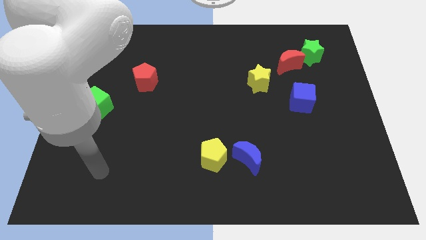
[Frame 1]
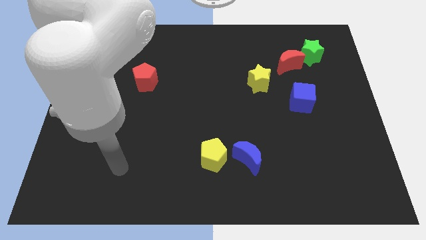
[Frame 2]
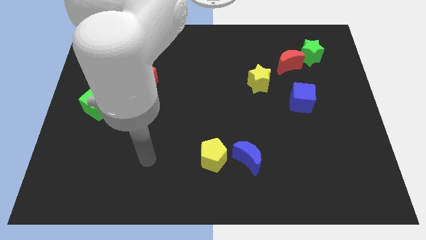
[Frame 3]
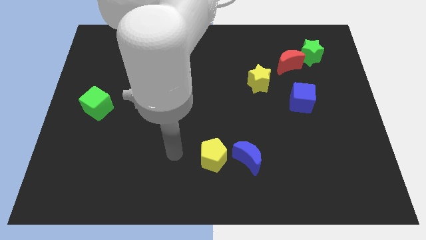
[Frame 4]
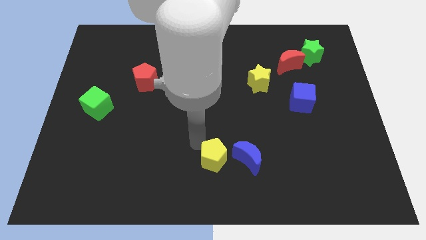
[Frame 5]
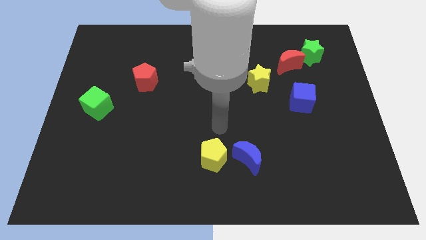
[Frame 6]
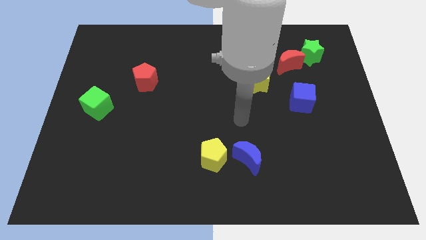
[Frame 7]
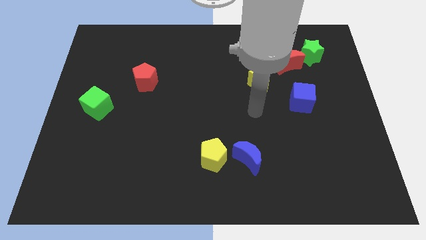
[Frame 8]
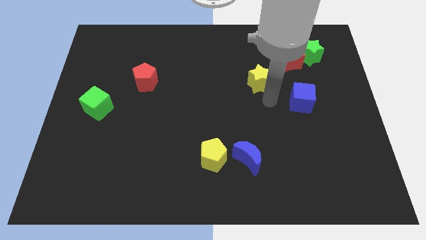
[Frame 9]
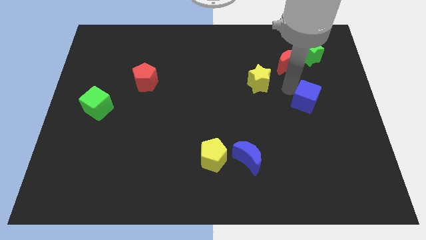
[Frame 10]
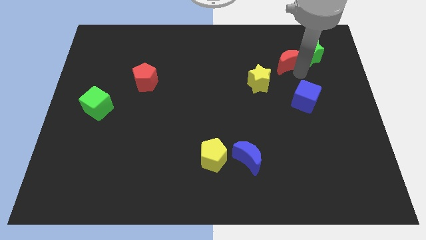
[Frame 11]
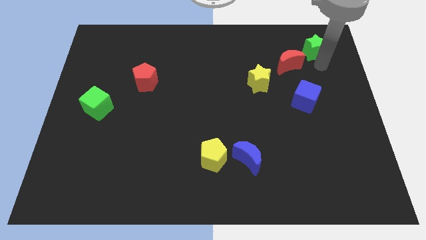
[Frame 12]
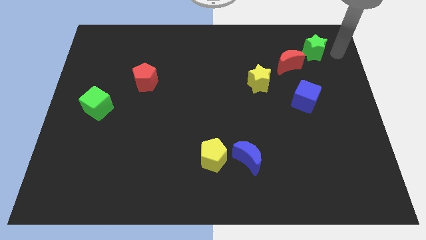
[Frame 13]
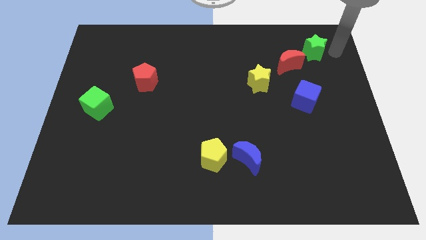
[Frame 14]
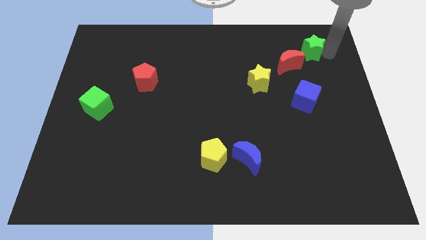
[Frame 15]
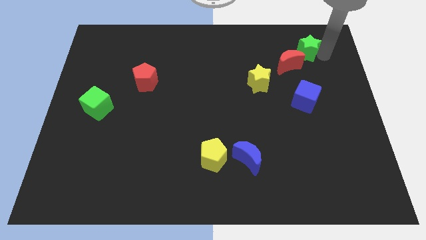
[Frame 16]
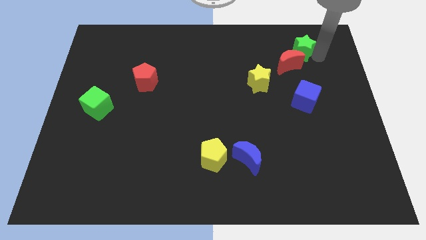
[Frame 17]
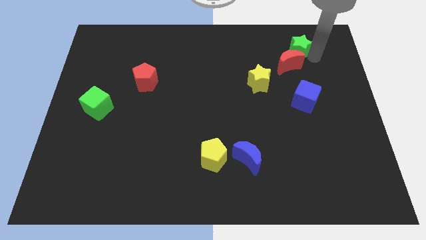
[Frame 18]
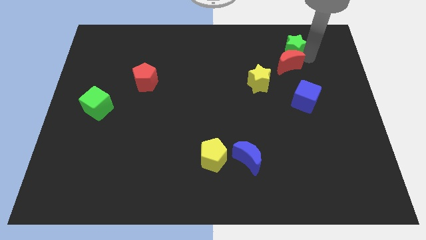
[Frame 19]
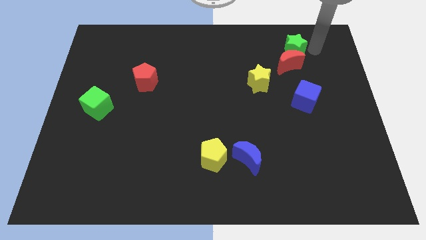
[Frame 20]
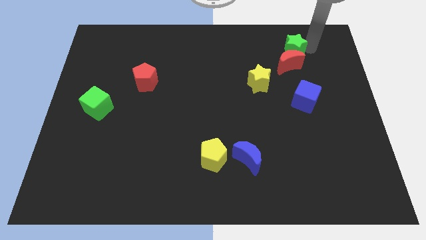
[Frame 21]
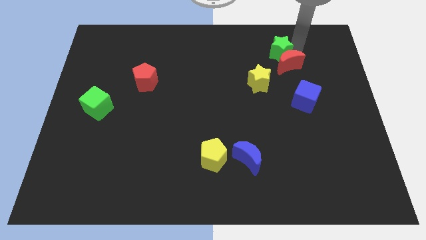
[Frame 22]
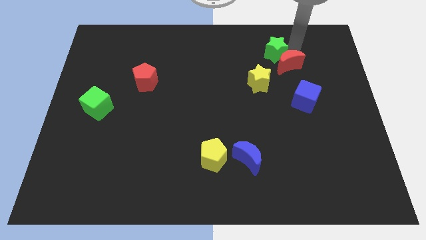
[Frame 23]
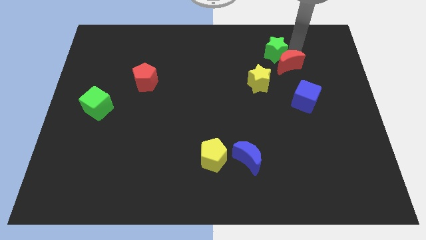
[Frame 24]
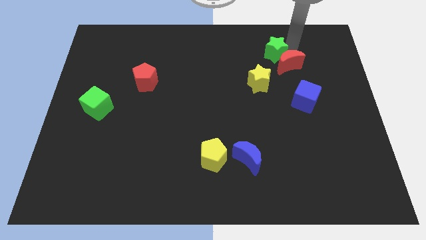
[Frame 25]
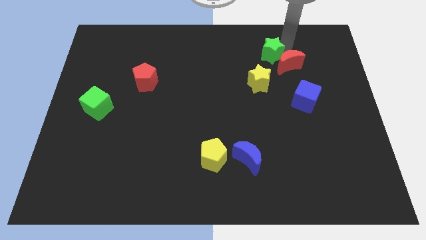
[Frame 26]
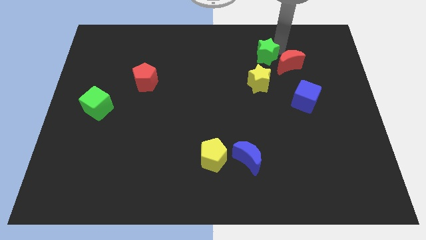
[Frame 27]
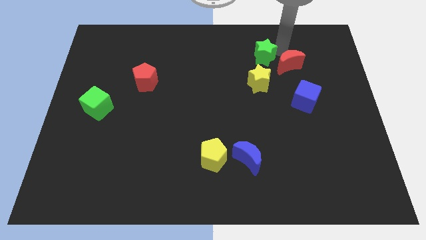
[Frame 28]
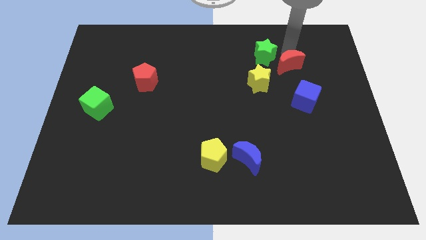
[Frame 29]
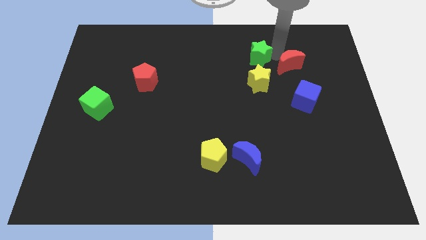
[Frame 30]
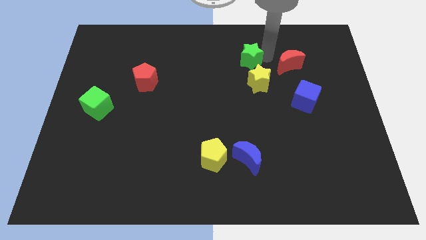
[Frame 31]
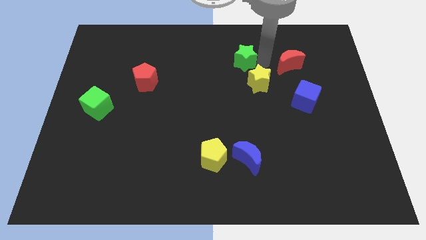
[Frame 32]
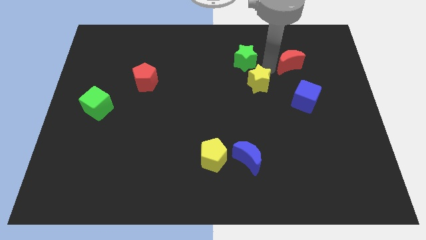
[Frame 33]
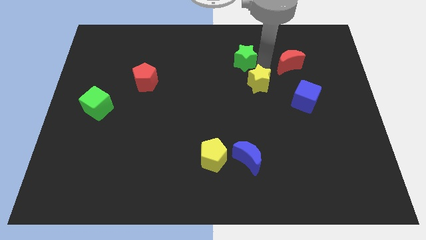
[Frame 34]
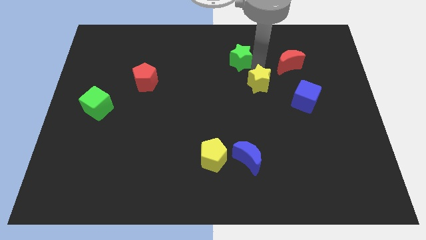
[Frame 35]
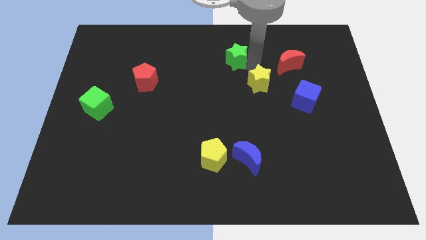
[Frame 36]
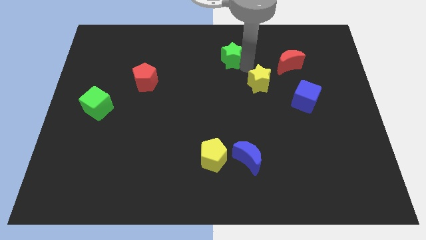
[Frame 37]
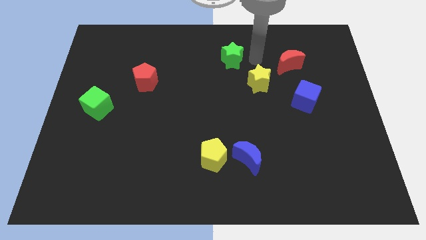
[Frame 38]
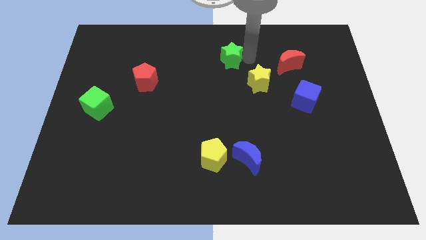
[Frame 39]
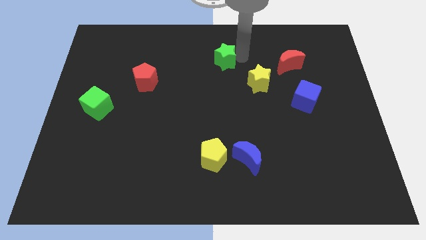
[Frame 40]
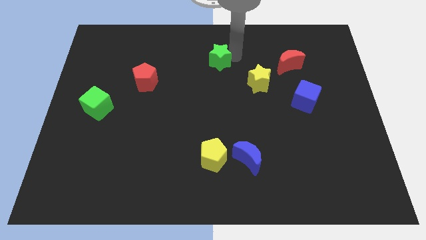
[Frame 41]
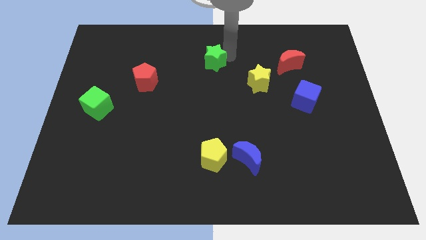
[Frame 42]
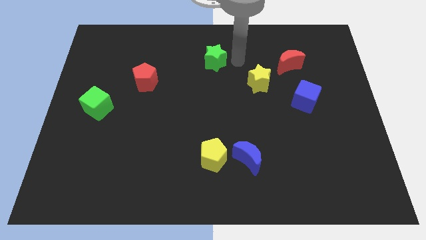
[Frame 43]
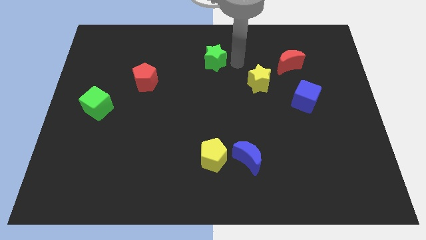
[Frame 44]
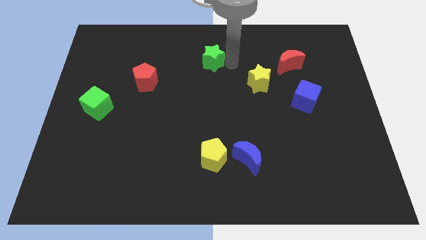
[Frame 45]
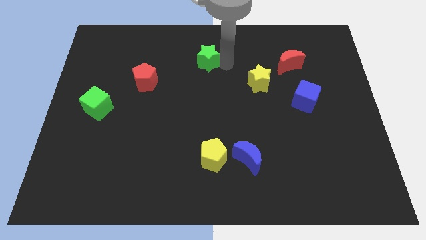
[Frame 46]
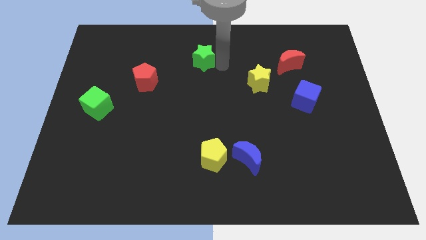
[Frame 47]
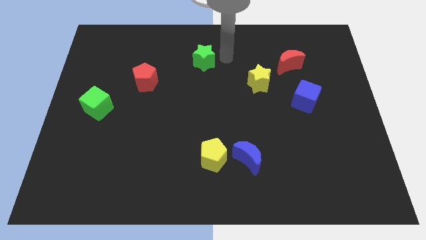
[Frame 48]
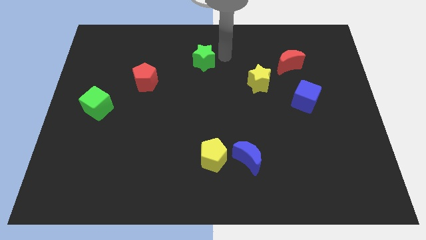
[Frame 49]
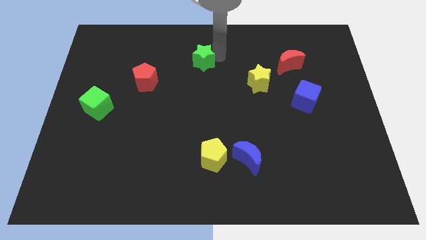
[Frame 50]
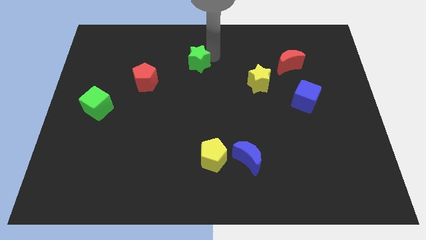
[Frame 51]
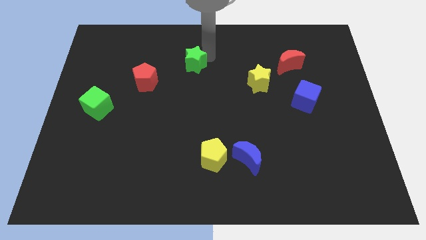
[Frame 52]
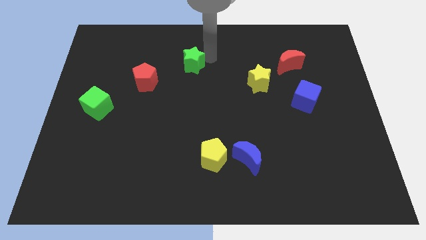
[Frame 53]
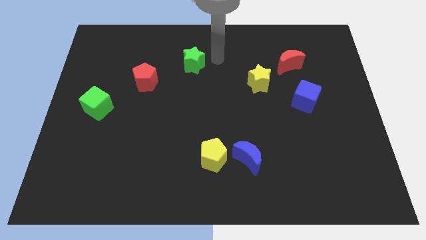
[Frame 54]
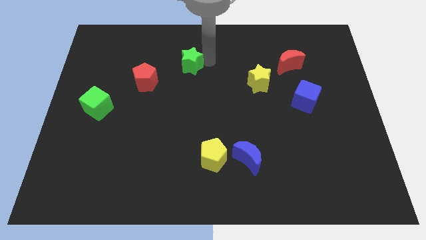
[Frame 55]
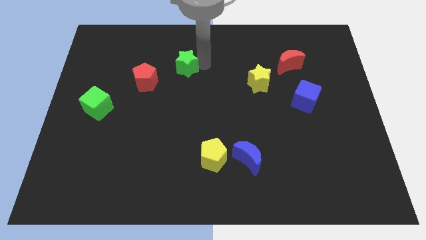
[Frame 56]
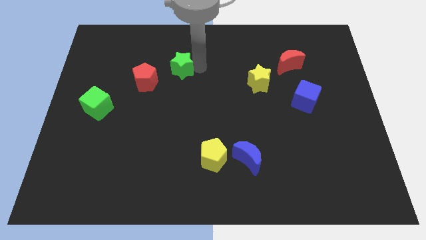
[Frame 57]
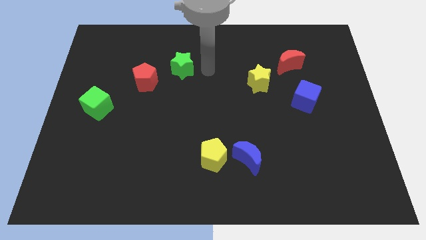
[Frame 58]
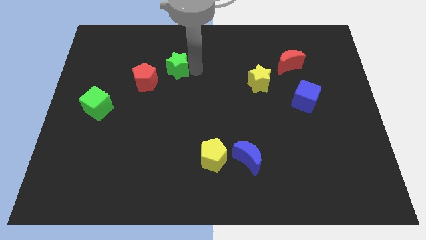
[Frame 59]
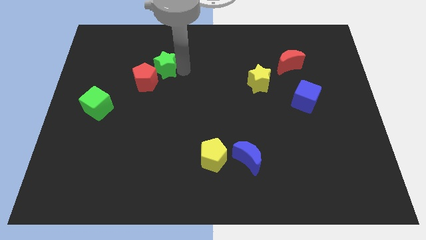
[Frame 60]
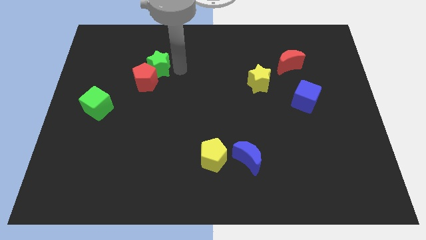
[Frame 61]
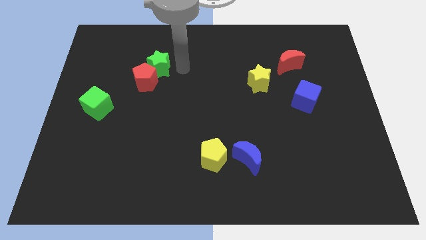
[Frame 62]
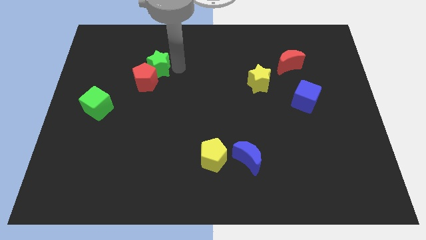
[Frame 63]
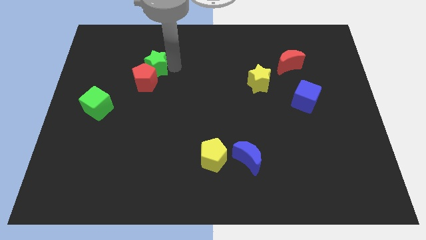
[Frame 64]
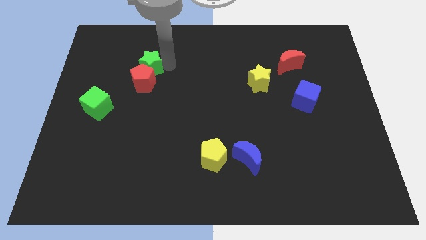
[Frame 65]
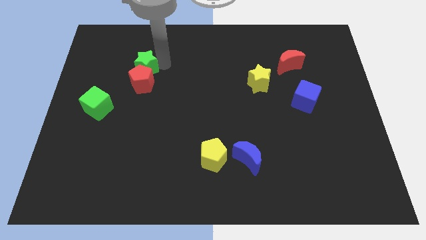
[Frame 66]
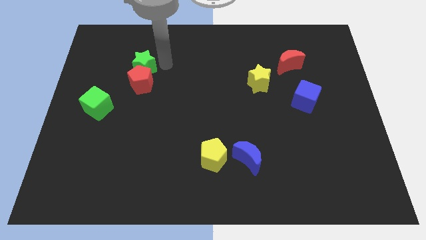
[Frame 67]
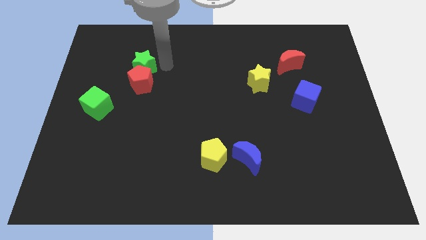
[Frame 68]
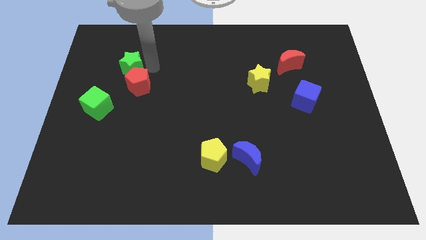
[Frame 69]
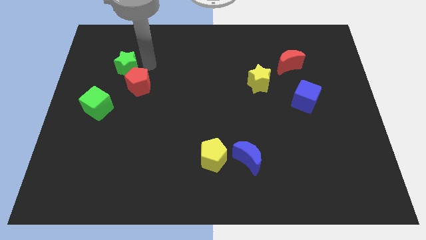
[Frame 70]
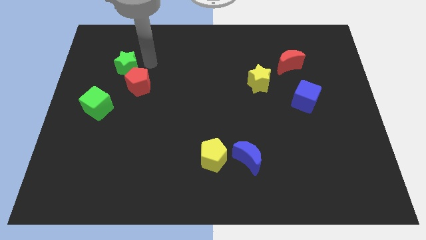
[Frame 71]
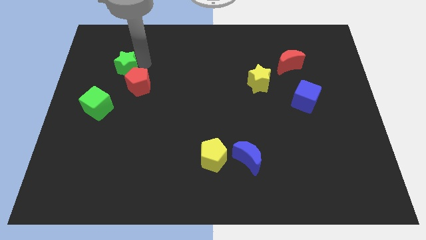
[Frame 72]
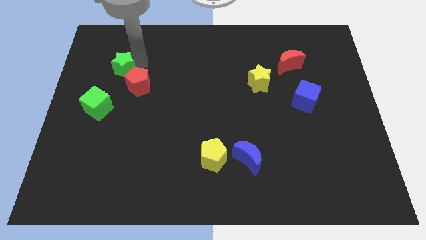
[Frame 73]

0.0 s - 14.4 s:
move the green star to the top of the green cube
